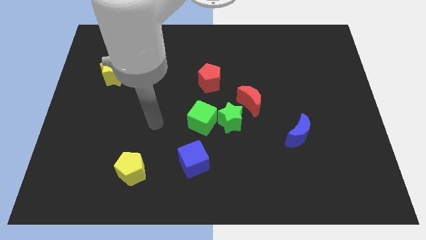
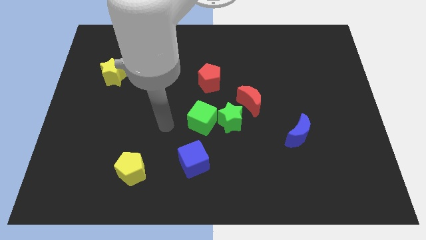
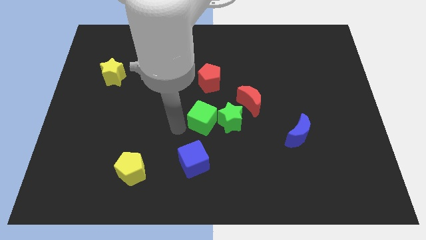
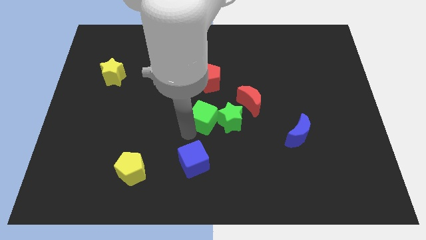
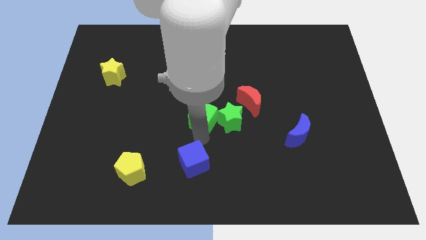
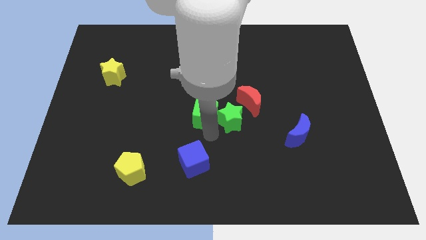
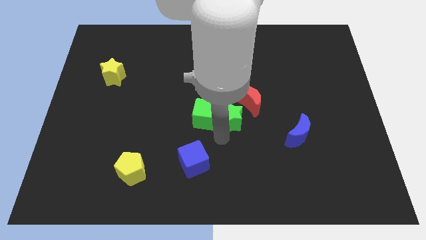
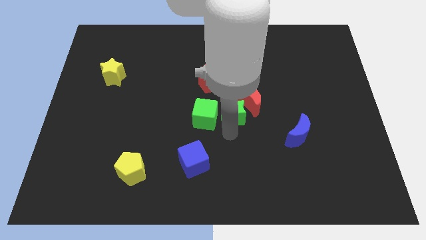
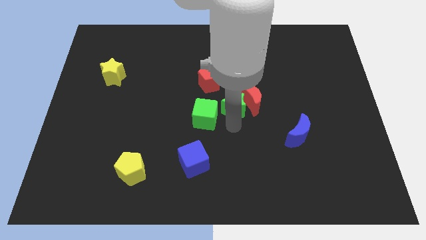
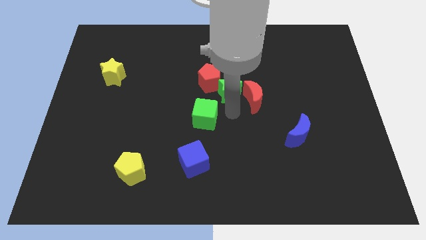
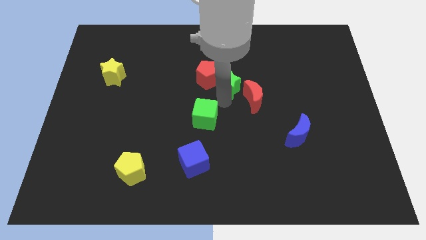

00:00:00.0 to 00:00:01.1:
move the green cube away from the green star

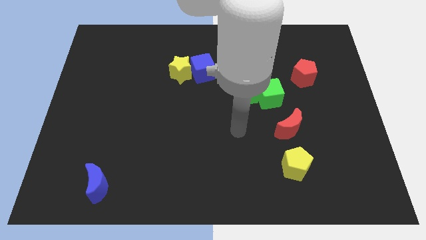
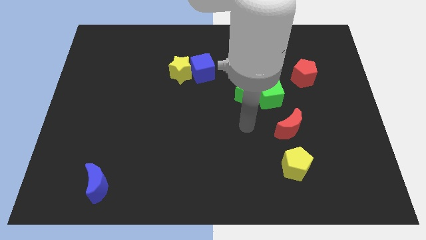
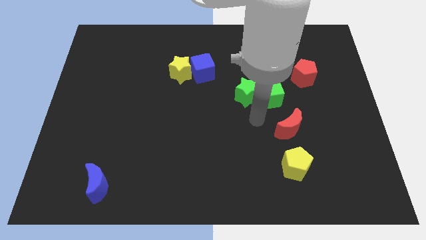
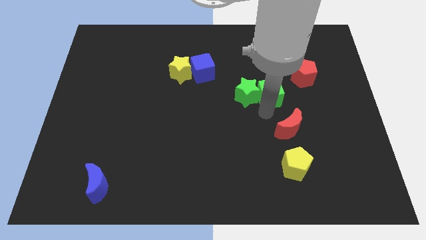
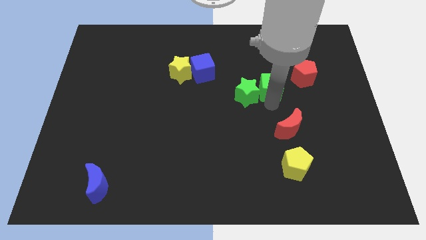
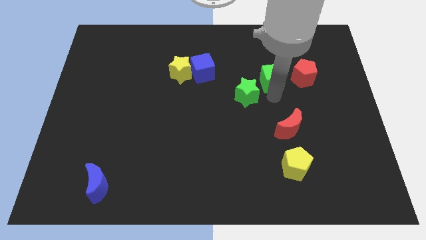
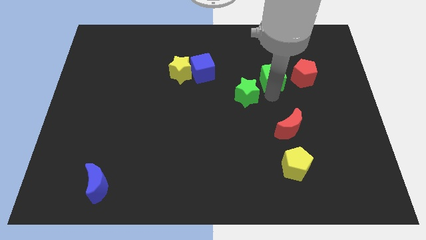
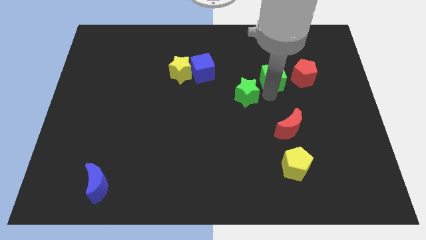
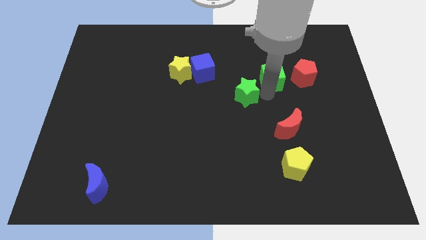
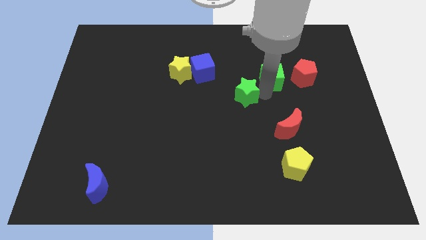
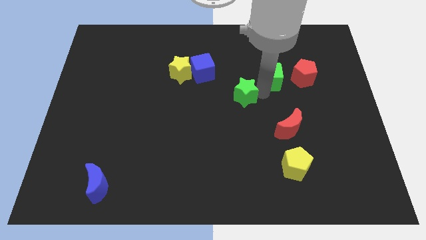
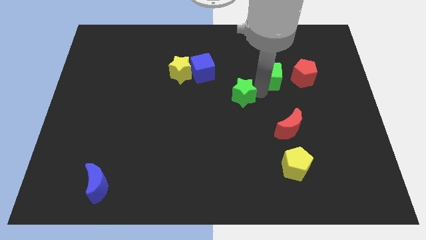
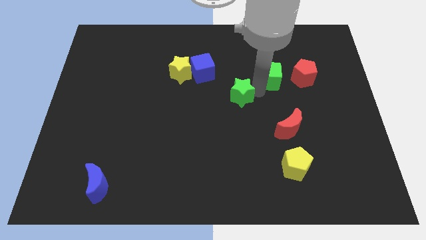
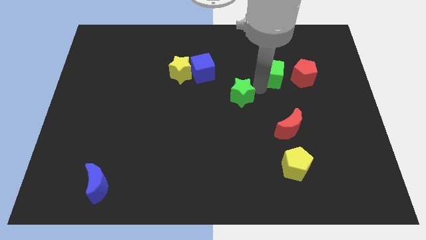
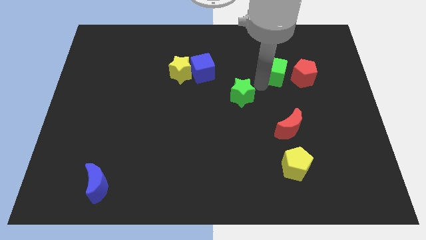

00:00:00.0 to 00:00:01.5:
pull the green star apart from the green cube

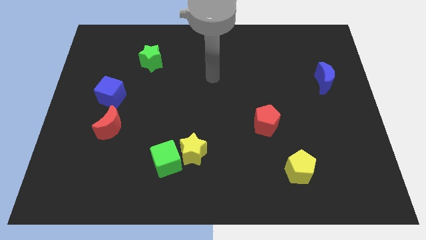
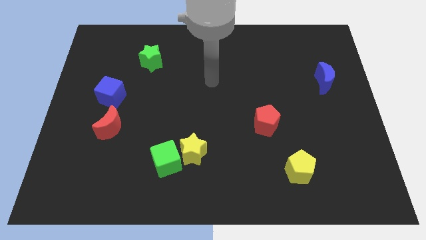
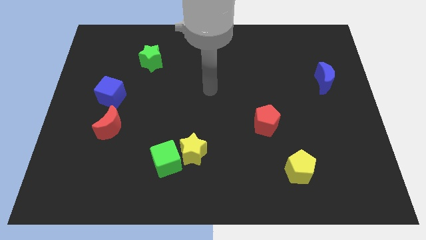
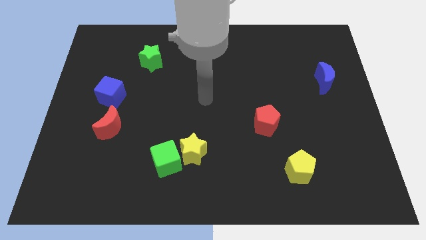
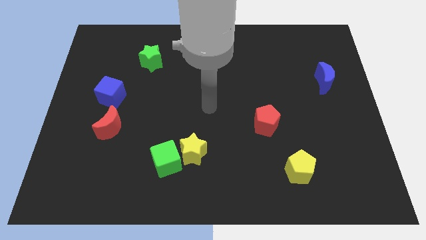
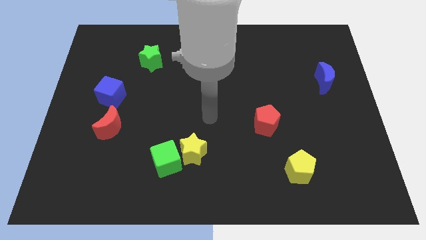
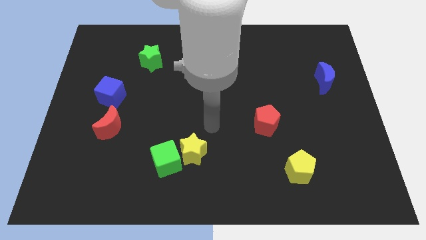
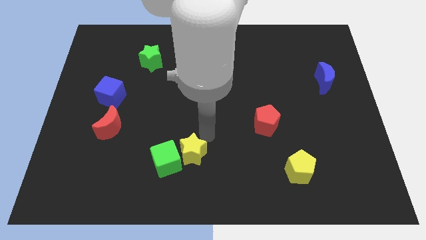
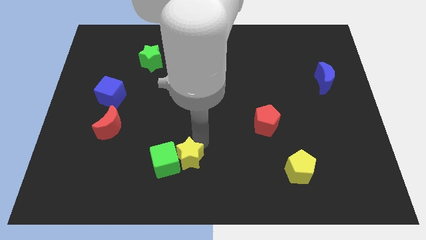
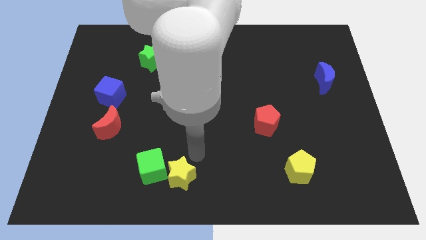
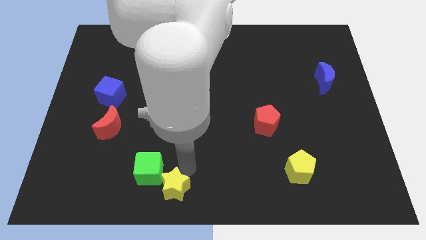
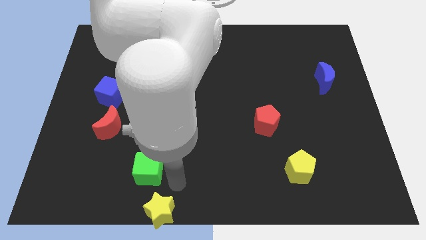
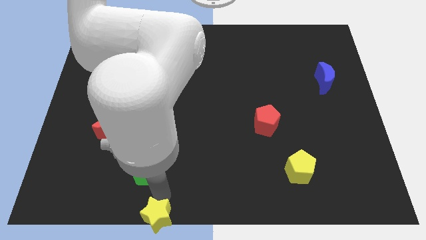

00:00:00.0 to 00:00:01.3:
pull the green cube apart from the yellow star

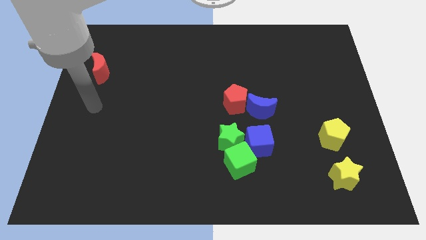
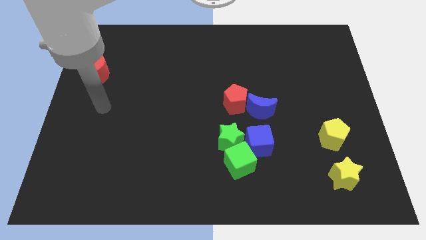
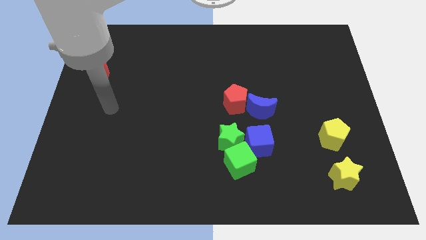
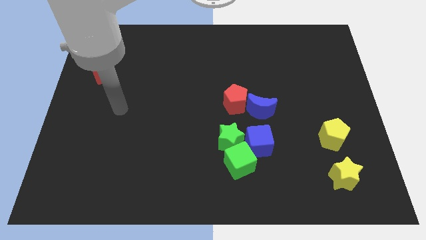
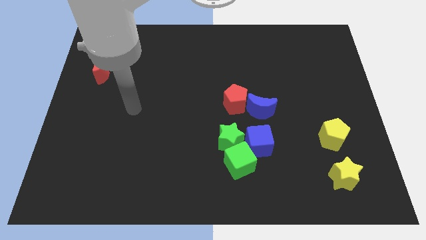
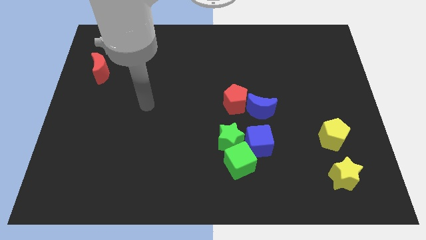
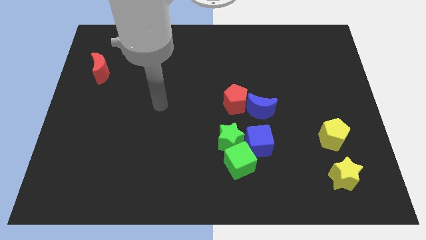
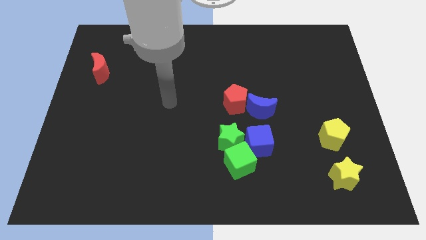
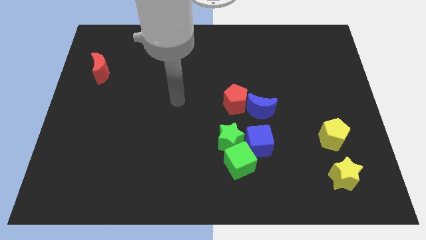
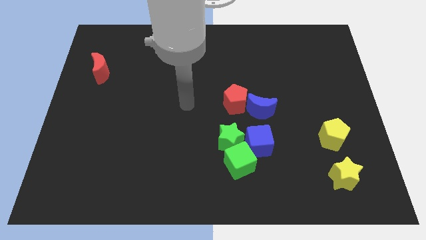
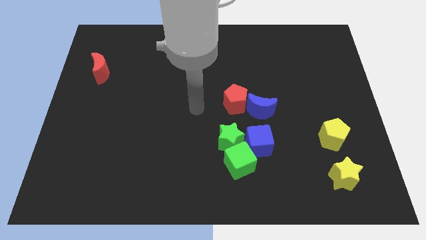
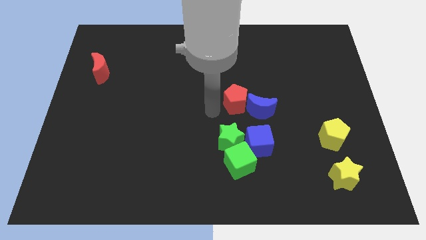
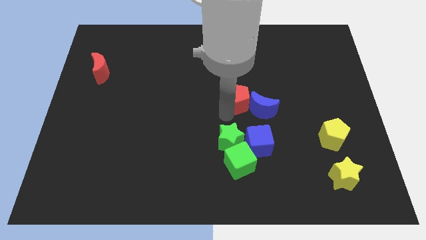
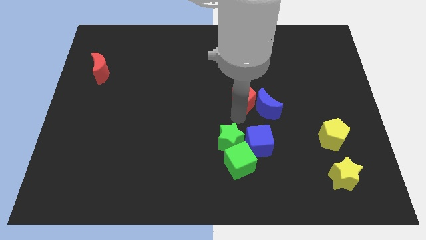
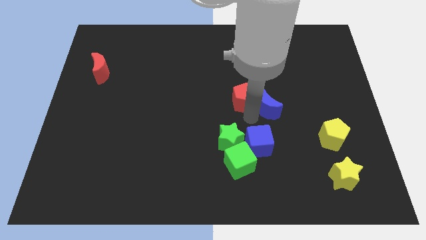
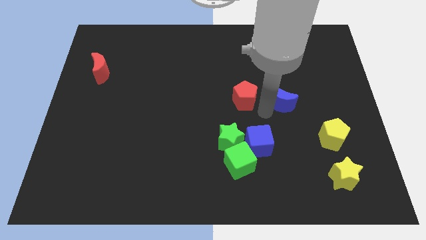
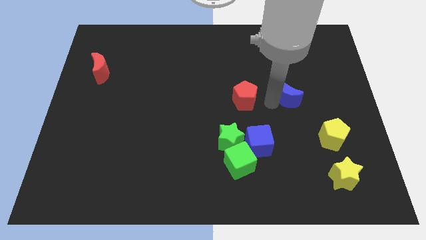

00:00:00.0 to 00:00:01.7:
pull the red pentagon apart from the blue moon

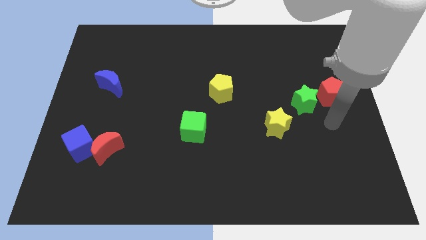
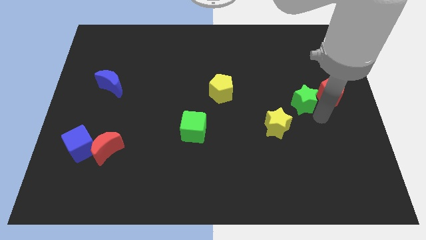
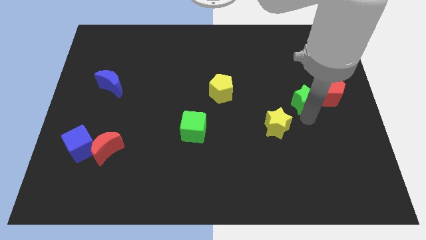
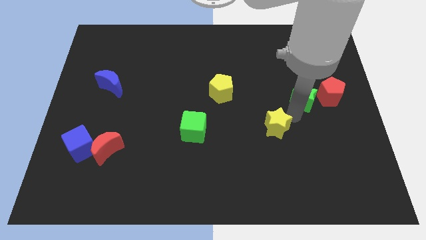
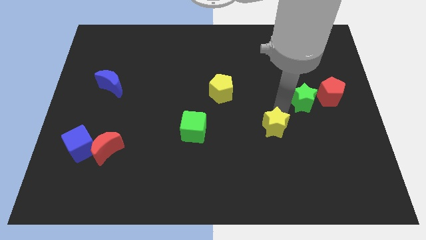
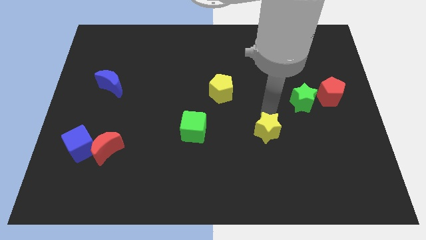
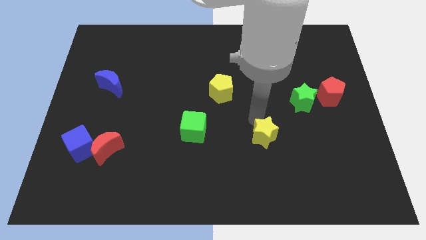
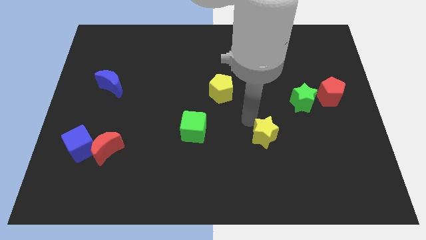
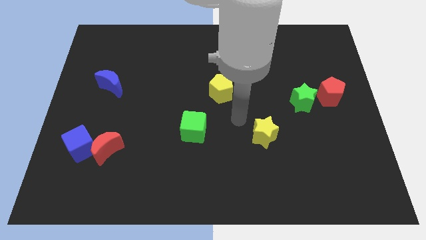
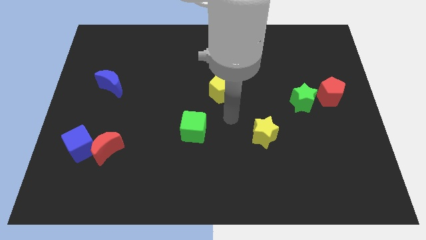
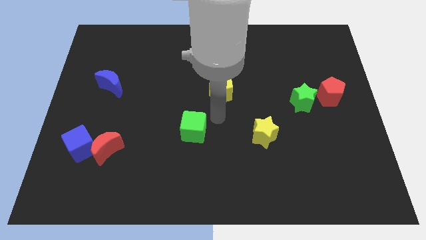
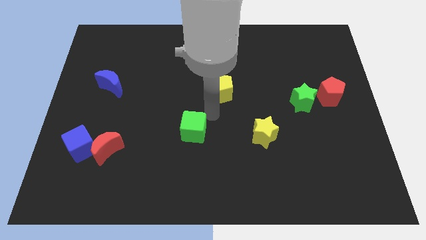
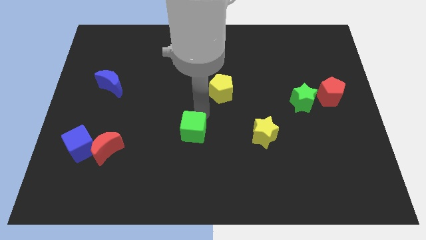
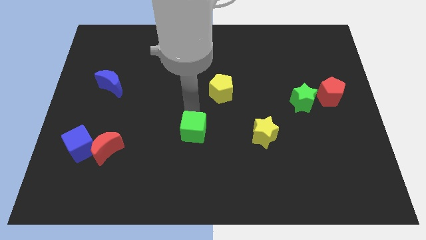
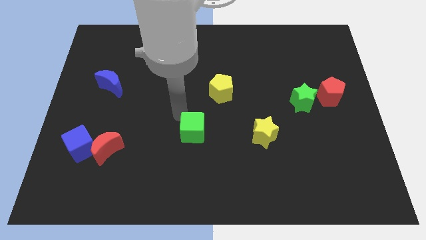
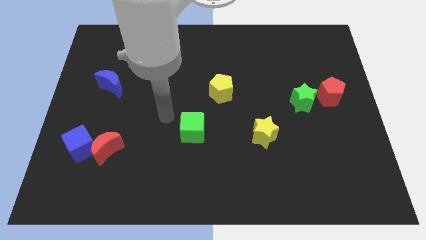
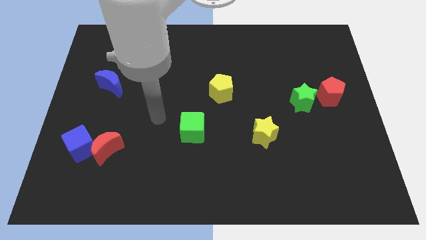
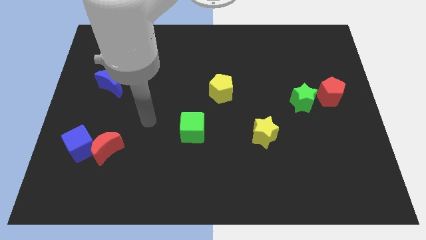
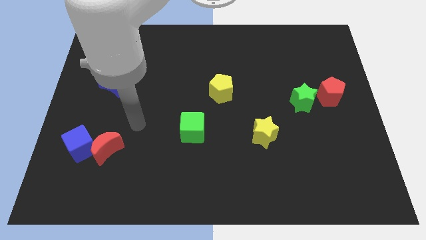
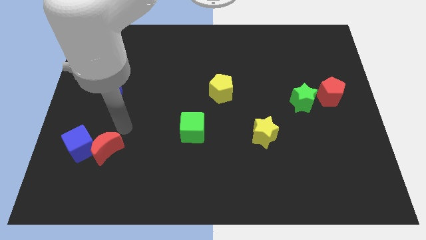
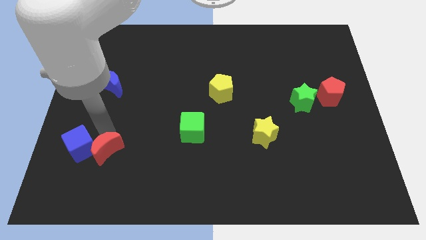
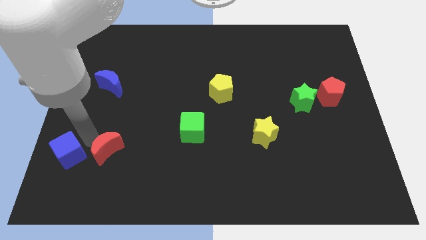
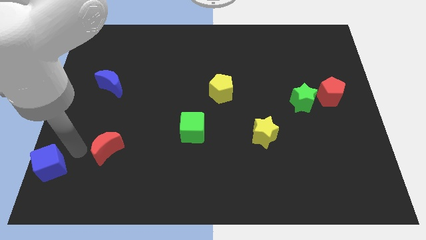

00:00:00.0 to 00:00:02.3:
move the red moon away from the blue cube

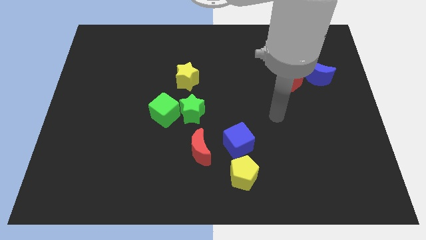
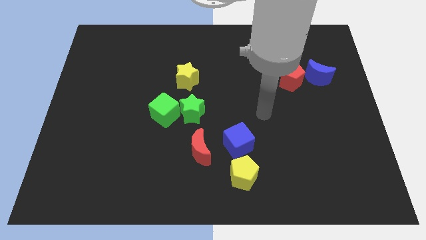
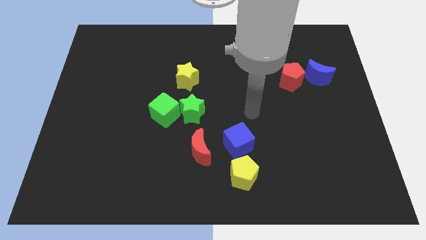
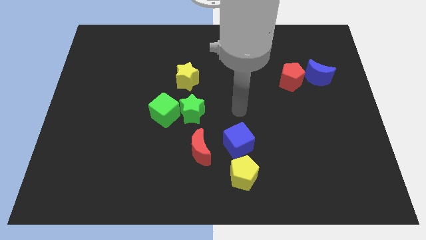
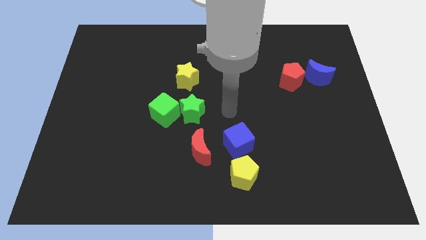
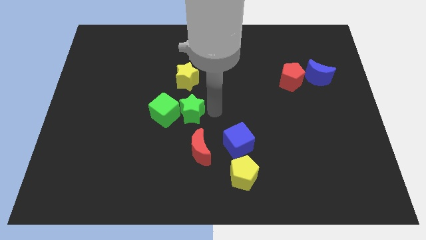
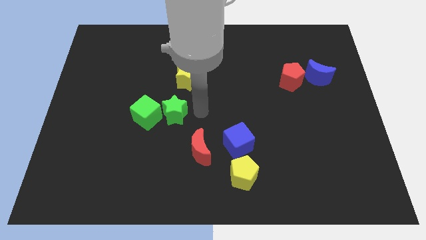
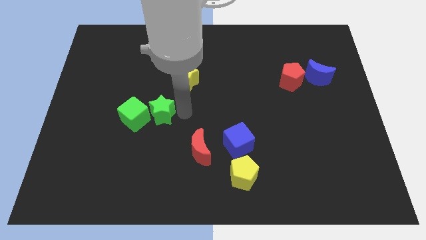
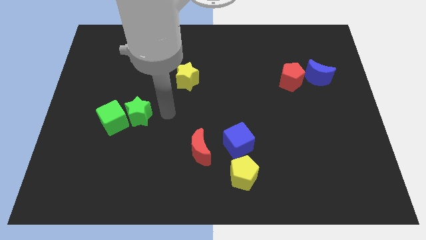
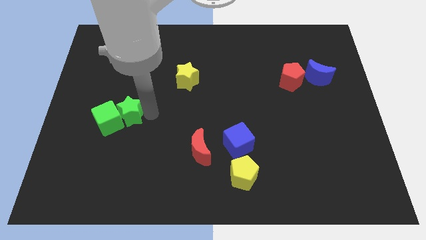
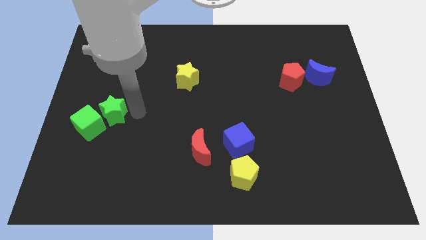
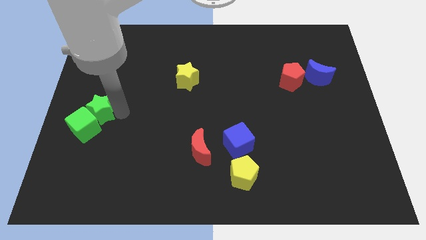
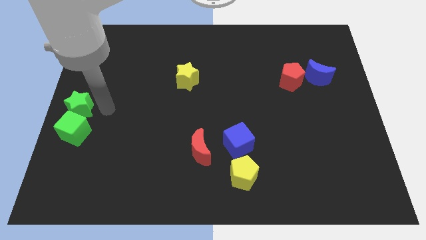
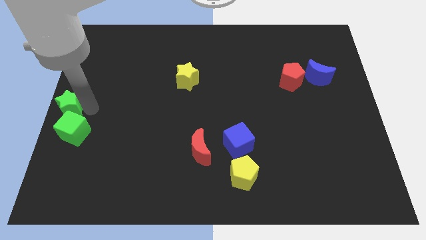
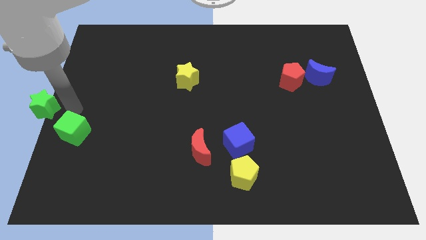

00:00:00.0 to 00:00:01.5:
pull the green cube apart from the green star
